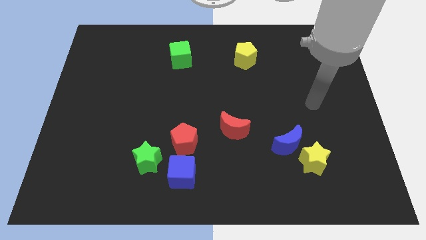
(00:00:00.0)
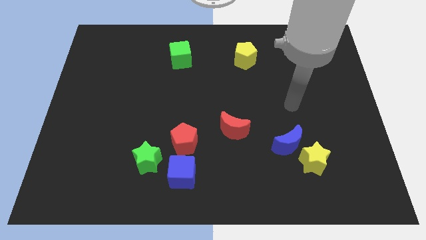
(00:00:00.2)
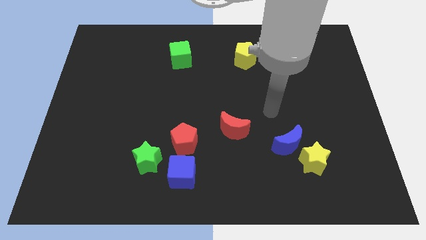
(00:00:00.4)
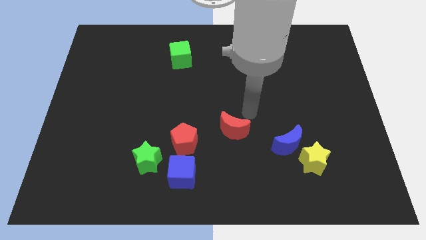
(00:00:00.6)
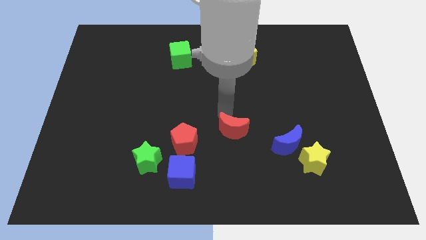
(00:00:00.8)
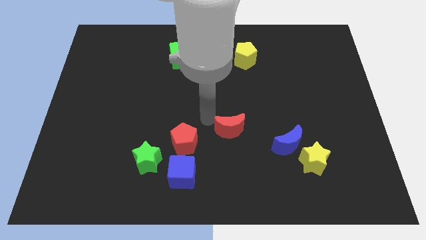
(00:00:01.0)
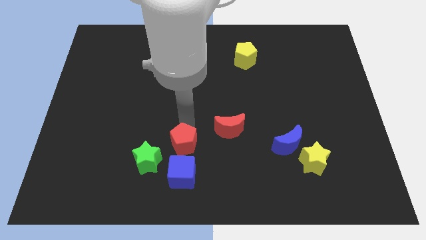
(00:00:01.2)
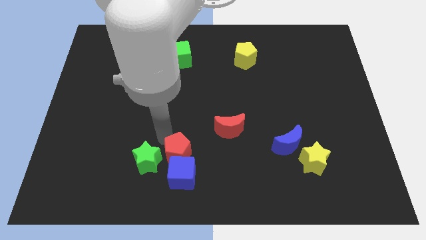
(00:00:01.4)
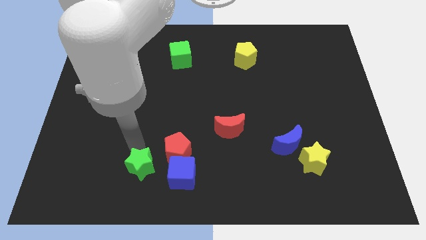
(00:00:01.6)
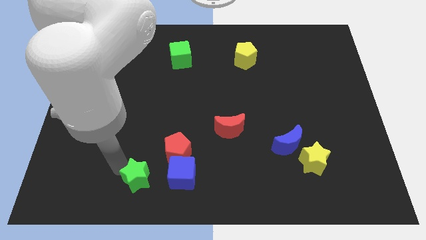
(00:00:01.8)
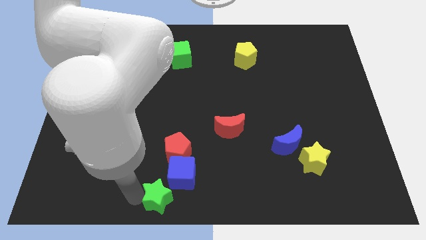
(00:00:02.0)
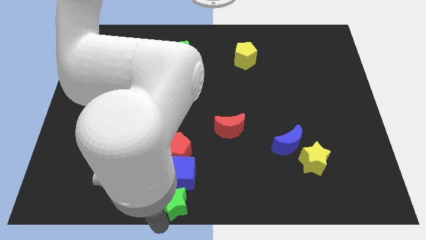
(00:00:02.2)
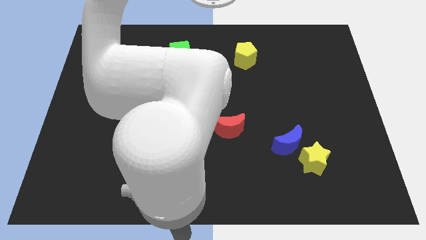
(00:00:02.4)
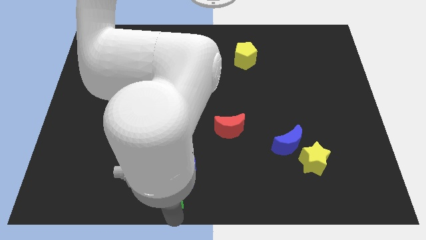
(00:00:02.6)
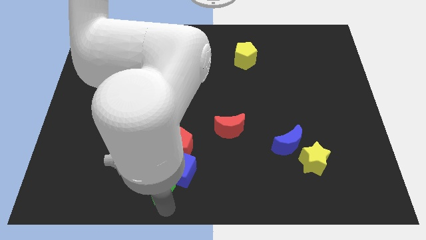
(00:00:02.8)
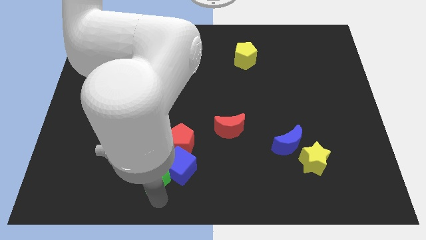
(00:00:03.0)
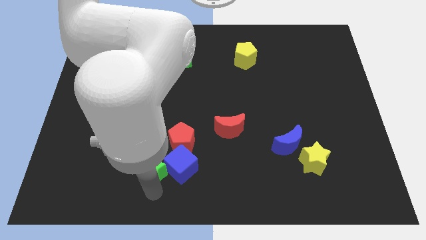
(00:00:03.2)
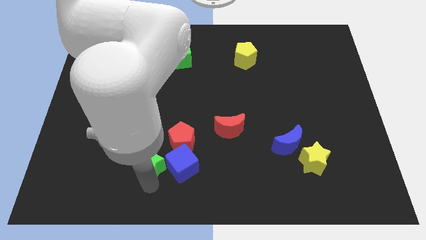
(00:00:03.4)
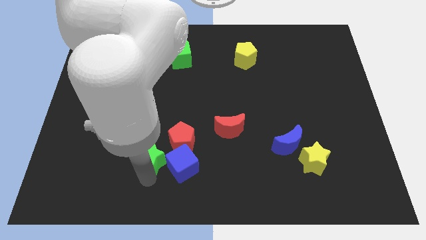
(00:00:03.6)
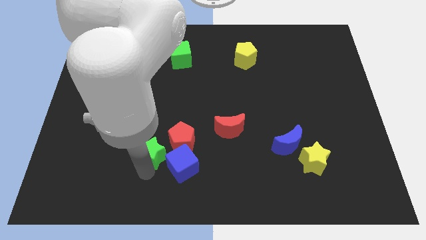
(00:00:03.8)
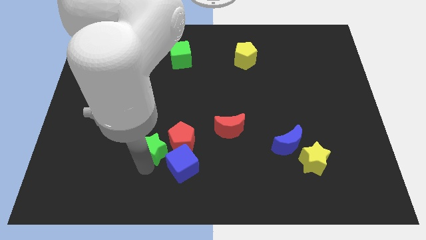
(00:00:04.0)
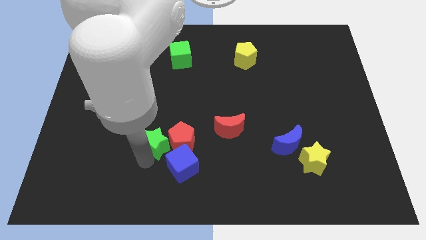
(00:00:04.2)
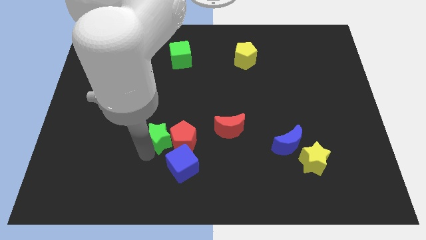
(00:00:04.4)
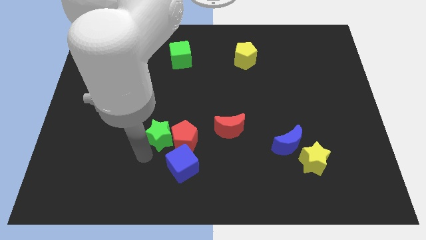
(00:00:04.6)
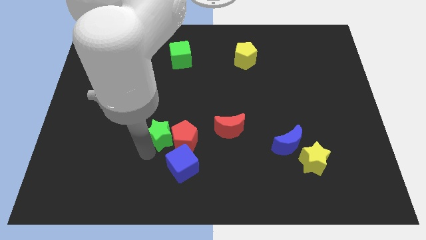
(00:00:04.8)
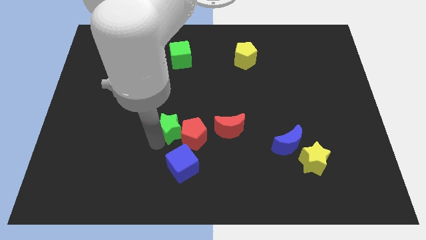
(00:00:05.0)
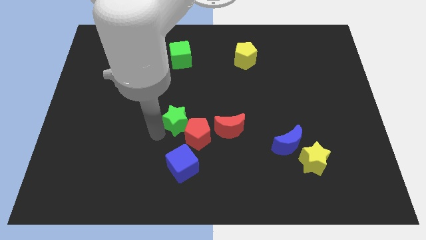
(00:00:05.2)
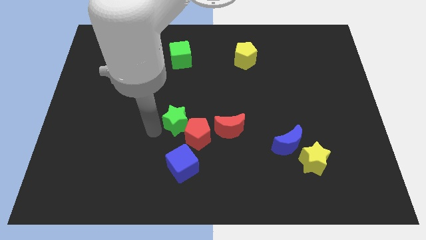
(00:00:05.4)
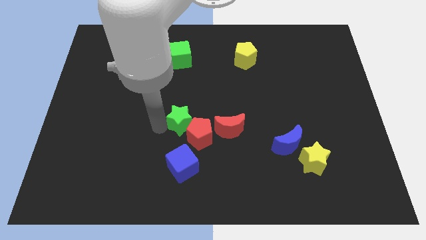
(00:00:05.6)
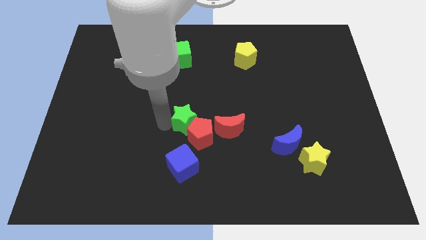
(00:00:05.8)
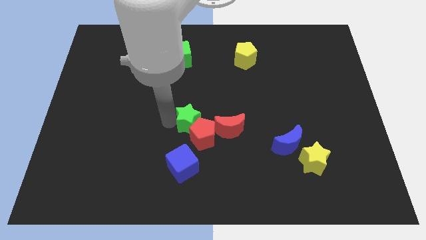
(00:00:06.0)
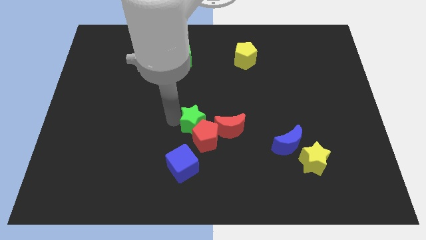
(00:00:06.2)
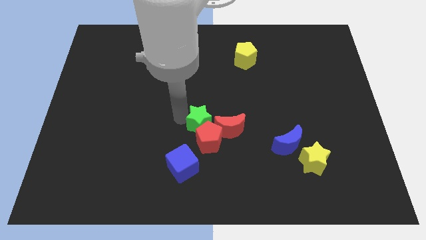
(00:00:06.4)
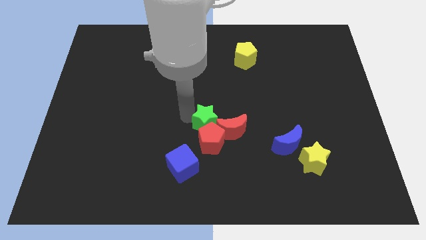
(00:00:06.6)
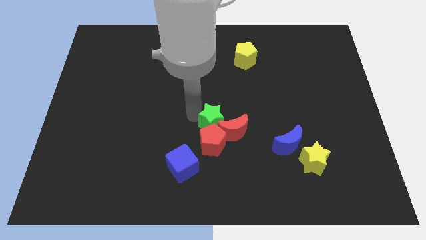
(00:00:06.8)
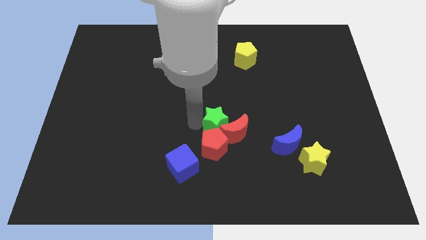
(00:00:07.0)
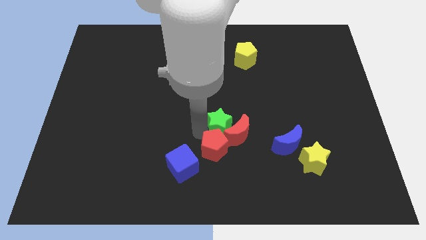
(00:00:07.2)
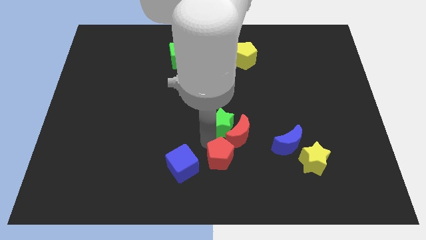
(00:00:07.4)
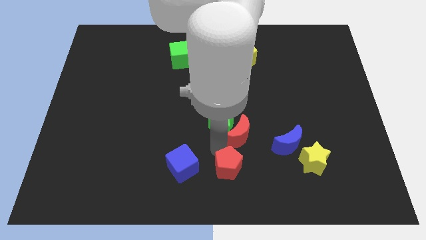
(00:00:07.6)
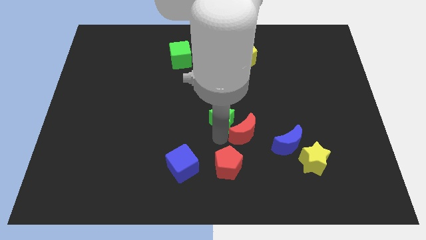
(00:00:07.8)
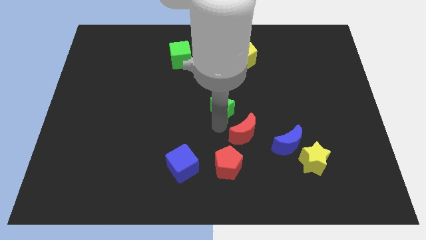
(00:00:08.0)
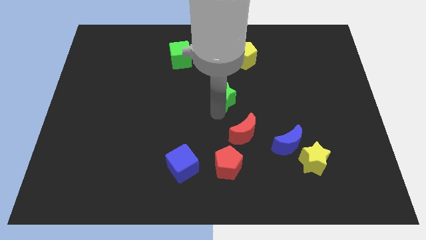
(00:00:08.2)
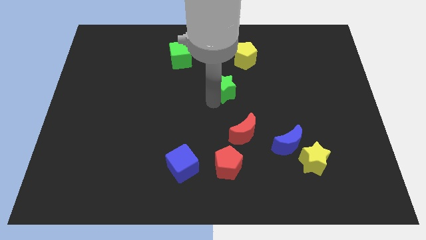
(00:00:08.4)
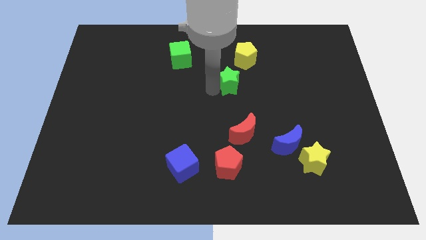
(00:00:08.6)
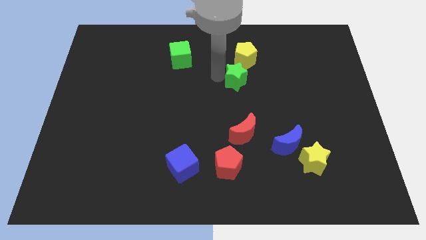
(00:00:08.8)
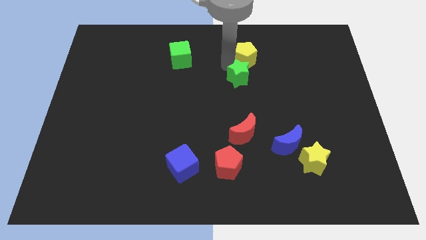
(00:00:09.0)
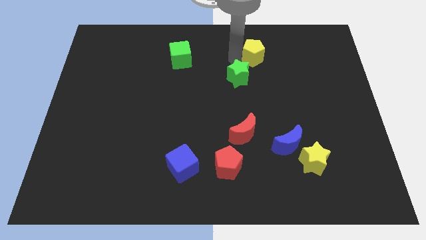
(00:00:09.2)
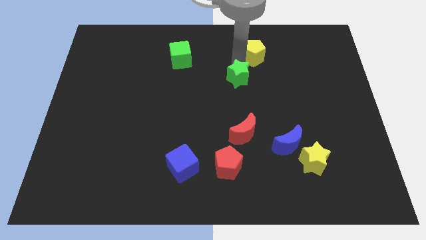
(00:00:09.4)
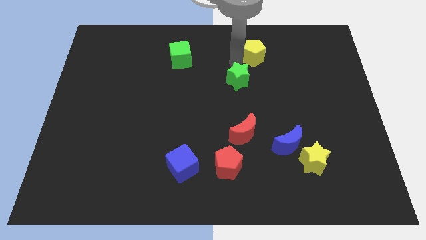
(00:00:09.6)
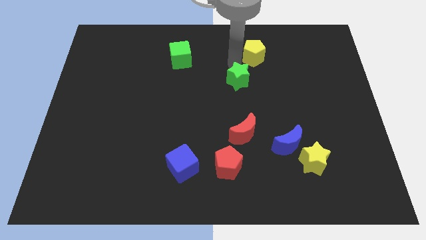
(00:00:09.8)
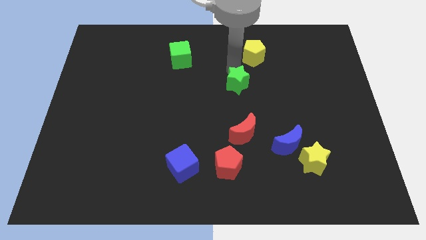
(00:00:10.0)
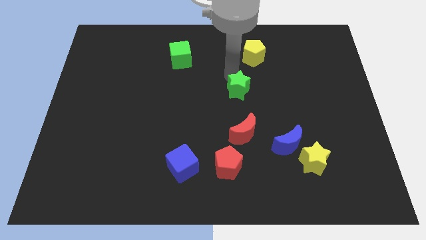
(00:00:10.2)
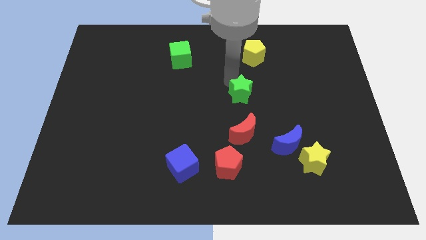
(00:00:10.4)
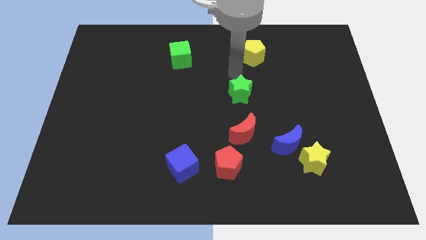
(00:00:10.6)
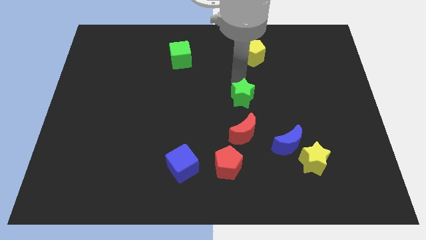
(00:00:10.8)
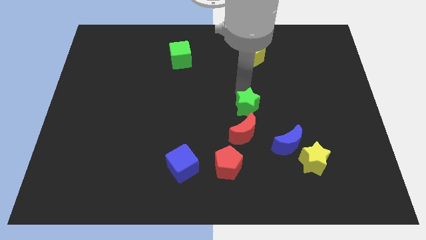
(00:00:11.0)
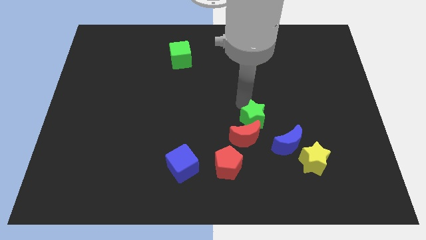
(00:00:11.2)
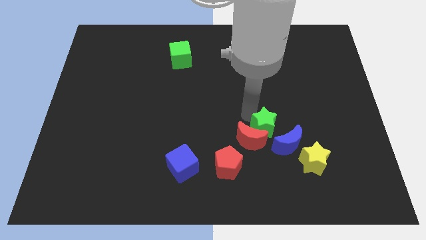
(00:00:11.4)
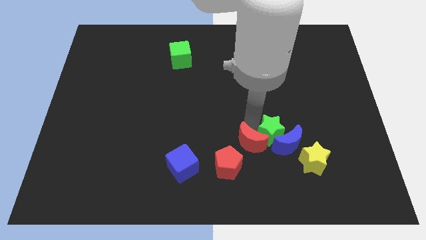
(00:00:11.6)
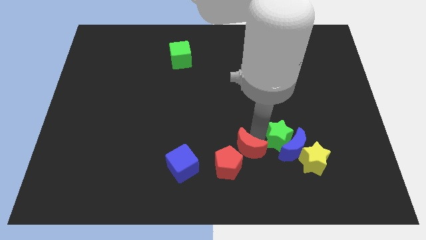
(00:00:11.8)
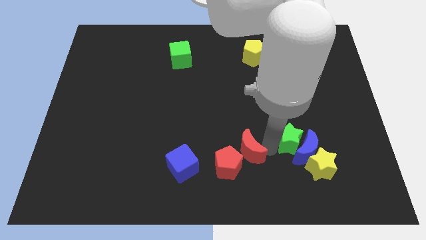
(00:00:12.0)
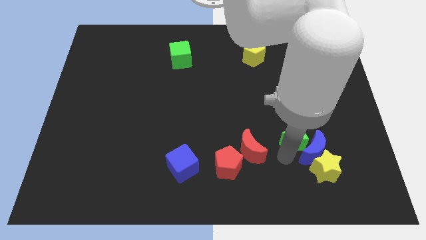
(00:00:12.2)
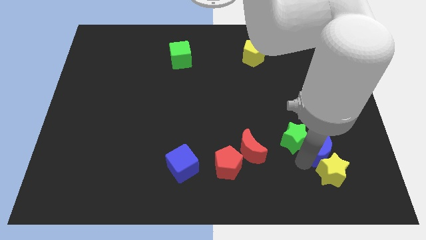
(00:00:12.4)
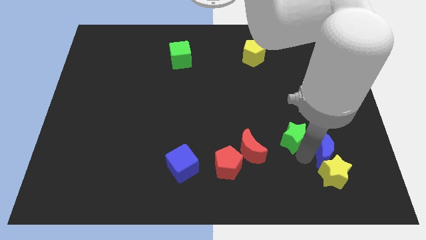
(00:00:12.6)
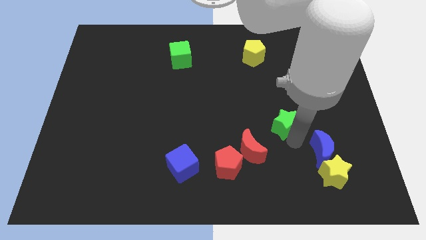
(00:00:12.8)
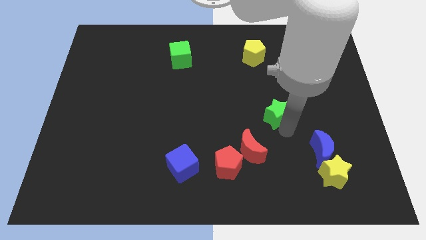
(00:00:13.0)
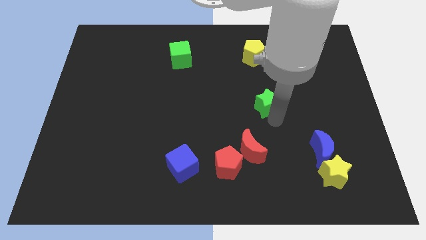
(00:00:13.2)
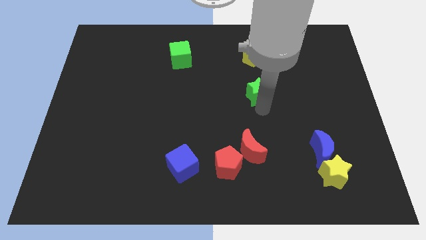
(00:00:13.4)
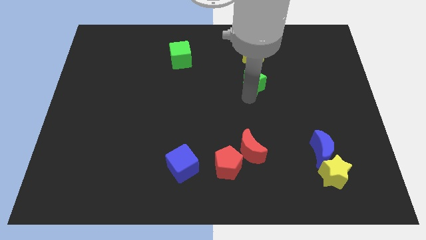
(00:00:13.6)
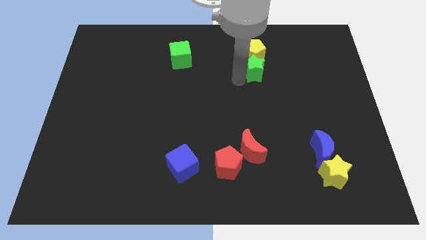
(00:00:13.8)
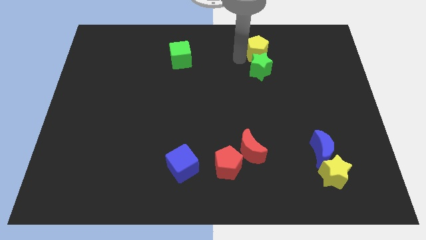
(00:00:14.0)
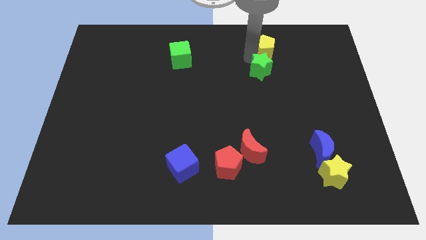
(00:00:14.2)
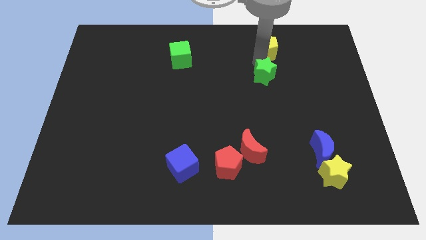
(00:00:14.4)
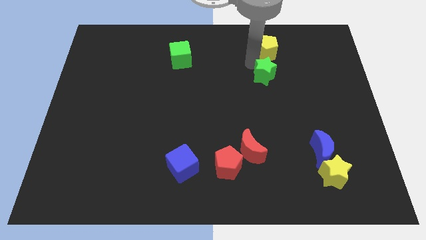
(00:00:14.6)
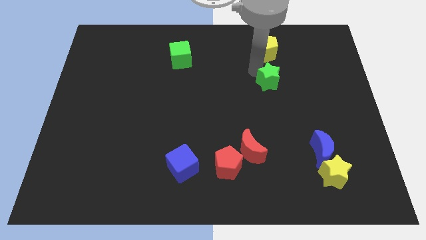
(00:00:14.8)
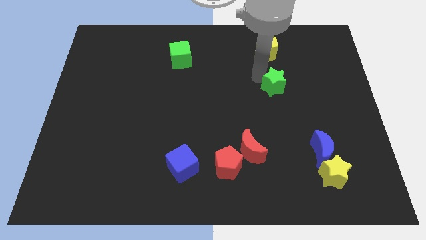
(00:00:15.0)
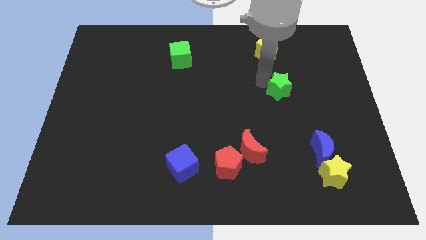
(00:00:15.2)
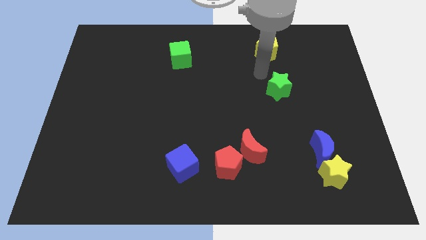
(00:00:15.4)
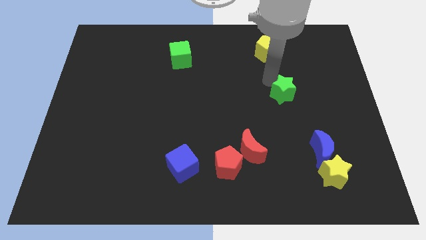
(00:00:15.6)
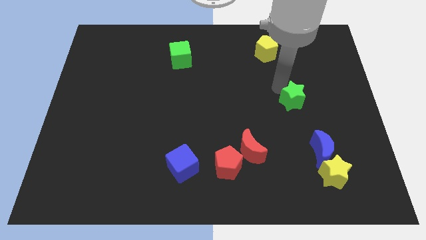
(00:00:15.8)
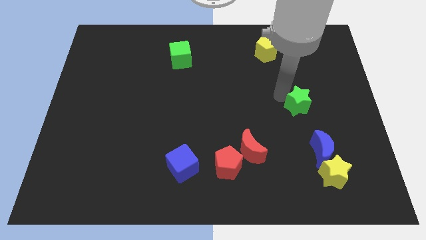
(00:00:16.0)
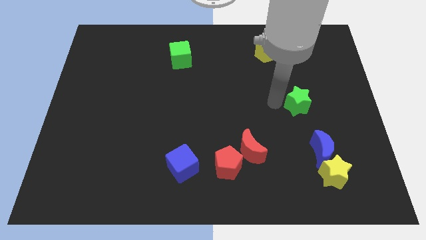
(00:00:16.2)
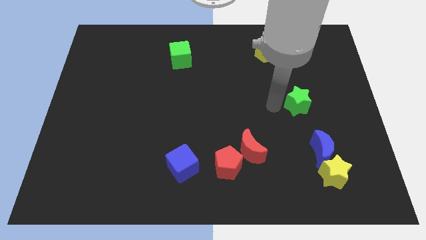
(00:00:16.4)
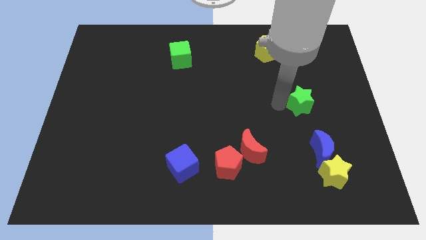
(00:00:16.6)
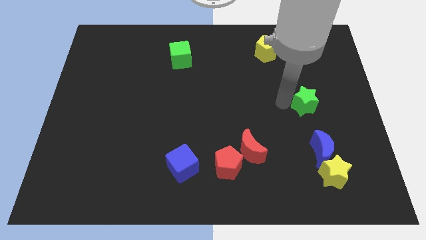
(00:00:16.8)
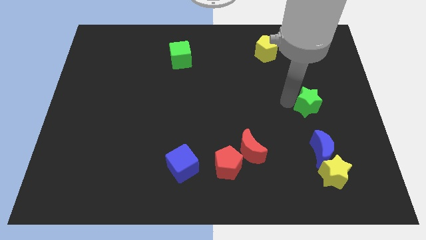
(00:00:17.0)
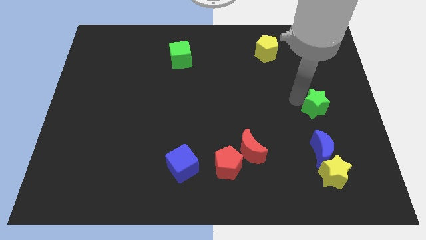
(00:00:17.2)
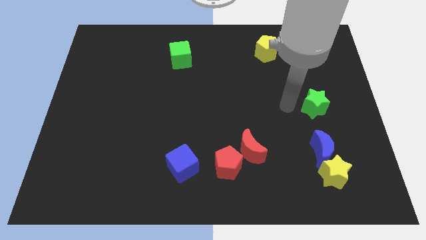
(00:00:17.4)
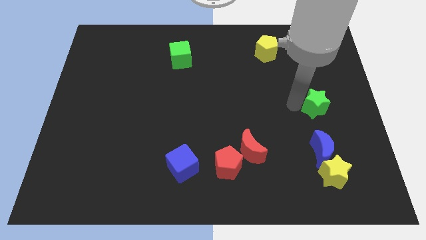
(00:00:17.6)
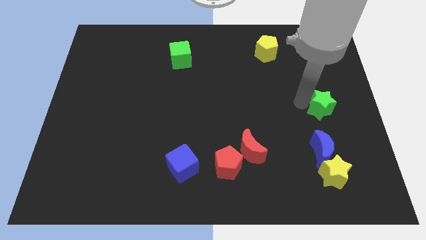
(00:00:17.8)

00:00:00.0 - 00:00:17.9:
slide the green star to the right side of the board
